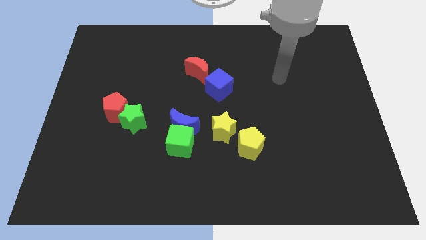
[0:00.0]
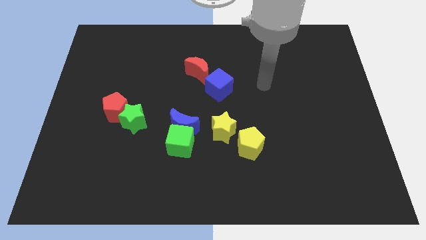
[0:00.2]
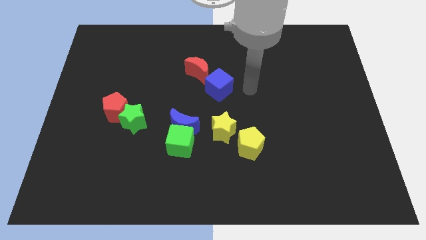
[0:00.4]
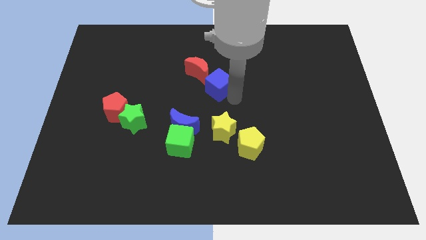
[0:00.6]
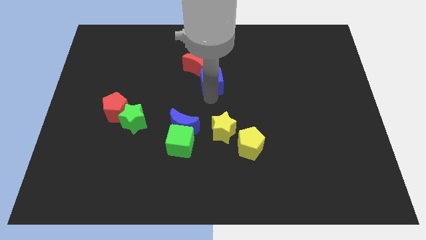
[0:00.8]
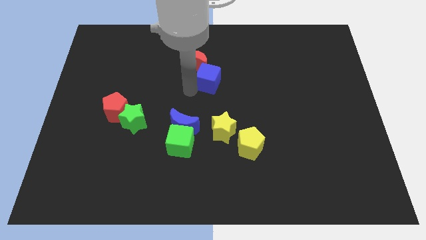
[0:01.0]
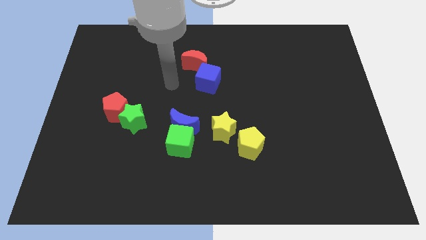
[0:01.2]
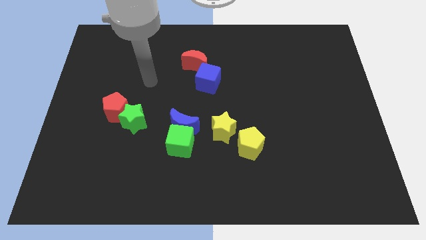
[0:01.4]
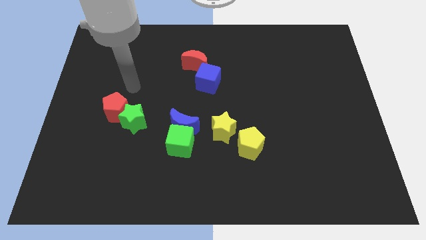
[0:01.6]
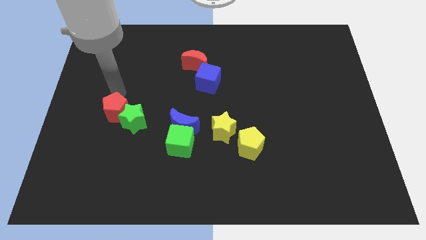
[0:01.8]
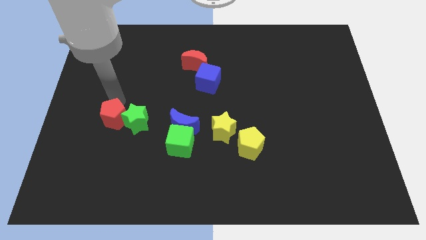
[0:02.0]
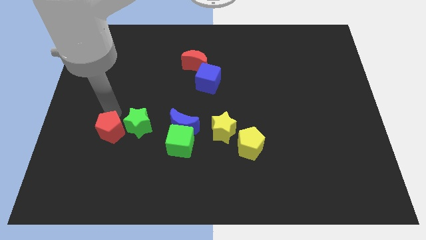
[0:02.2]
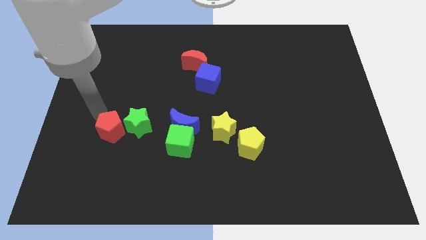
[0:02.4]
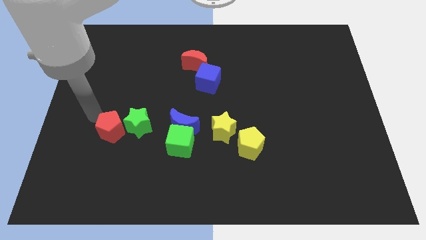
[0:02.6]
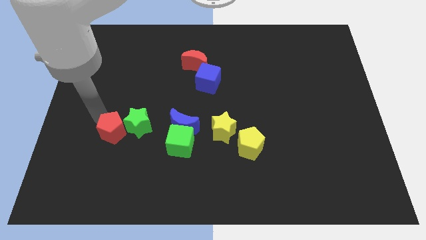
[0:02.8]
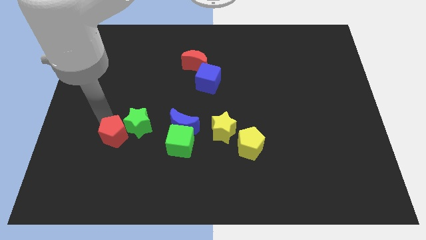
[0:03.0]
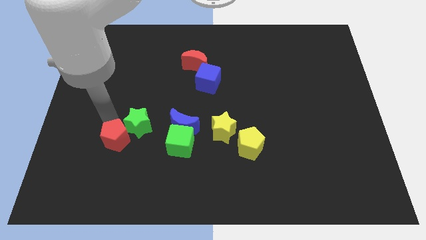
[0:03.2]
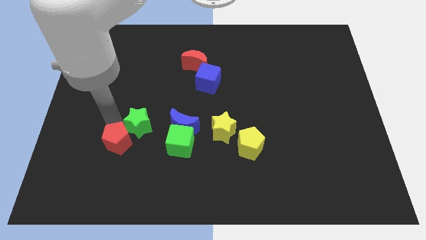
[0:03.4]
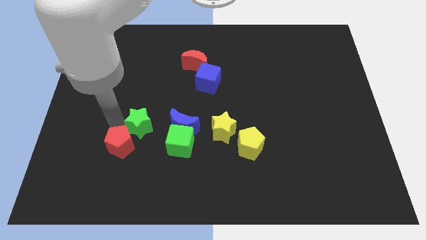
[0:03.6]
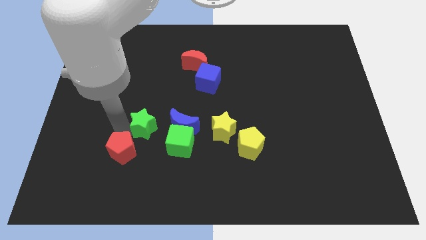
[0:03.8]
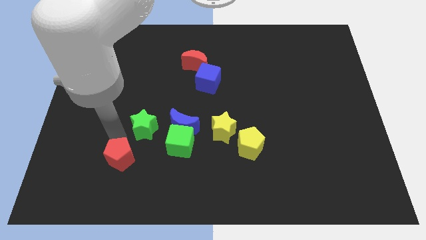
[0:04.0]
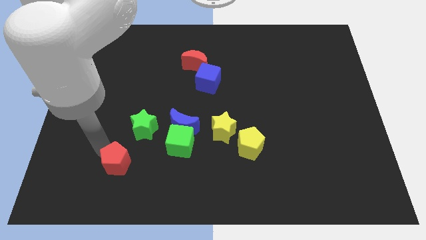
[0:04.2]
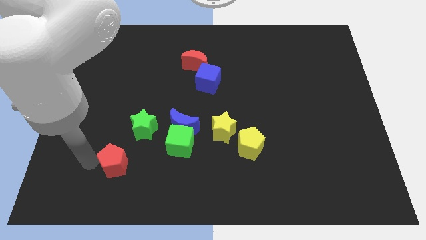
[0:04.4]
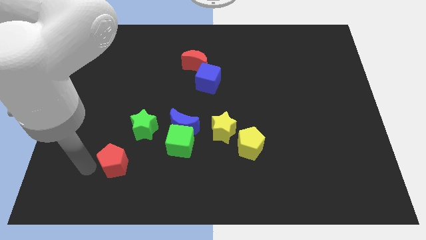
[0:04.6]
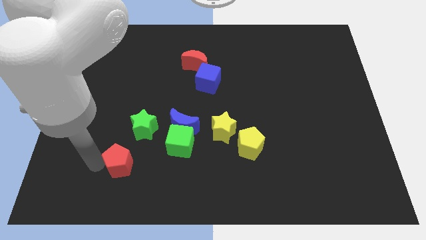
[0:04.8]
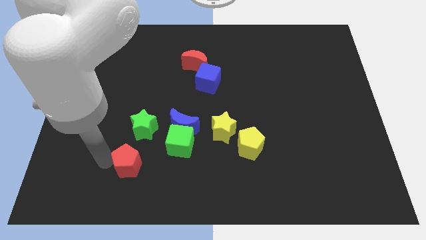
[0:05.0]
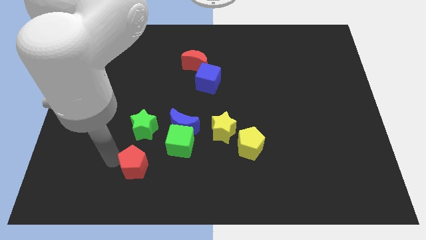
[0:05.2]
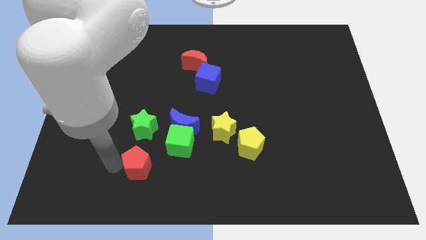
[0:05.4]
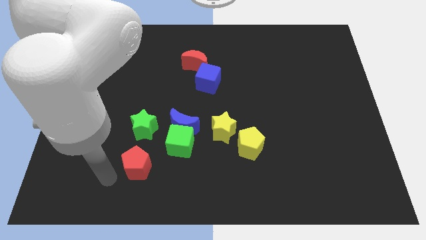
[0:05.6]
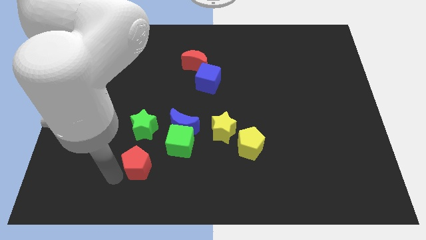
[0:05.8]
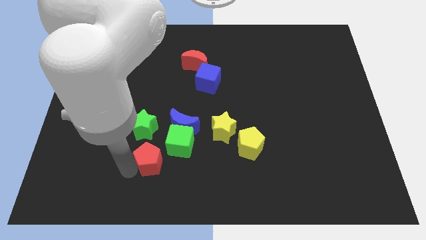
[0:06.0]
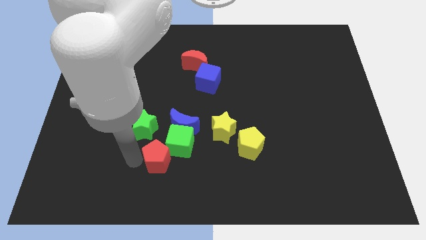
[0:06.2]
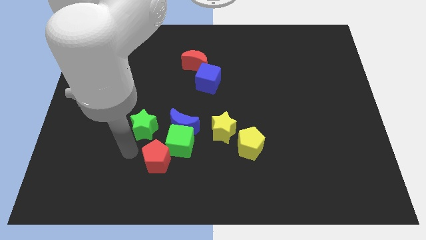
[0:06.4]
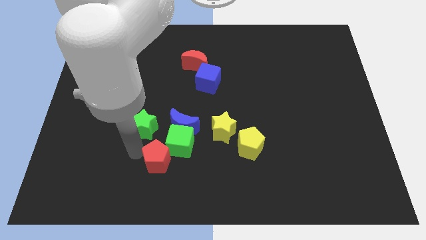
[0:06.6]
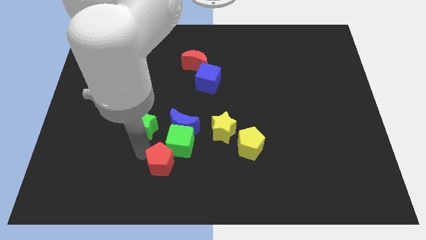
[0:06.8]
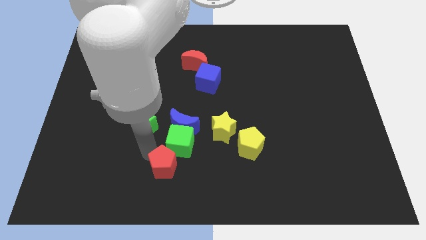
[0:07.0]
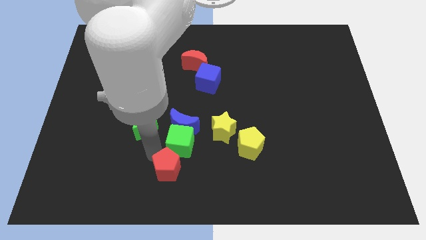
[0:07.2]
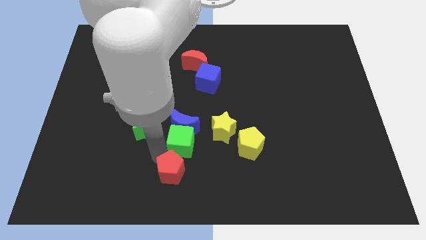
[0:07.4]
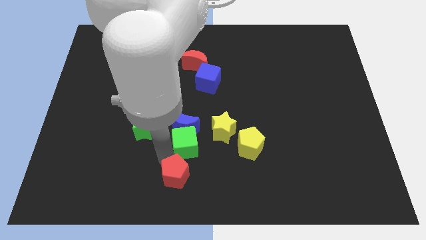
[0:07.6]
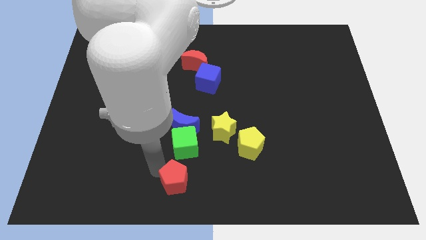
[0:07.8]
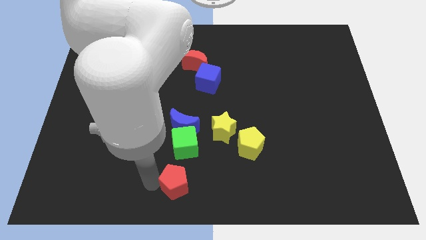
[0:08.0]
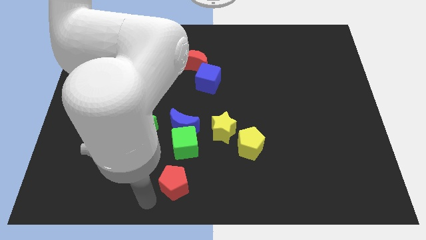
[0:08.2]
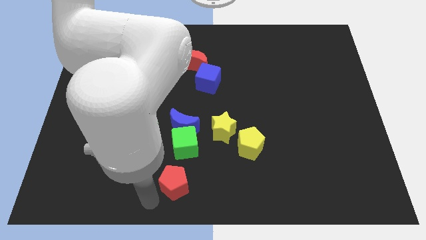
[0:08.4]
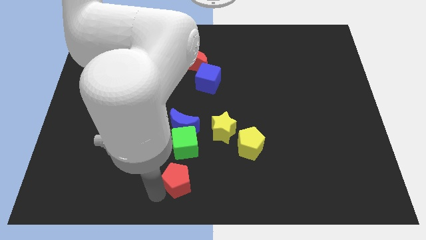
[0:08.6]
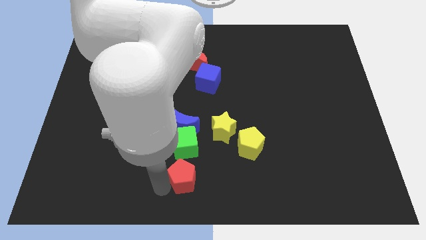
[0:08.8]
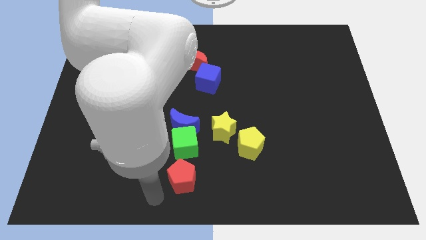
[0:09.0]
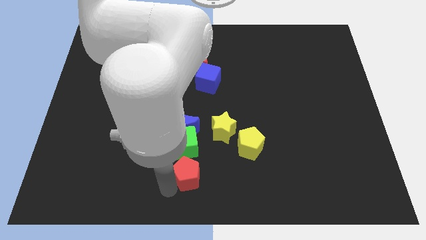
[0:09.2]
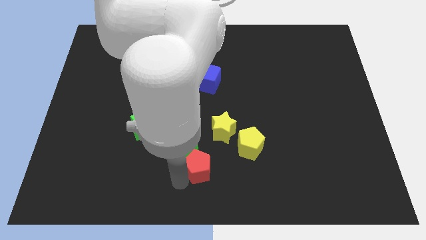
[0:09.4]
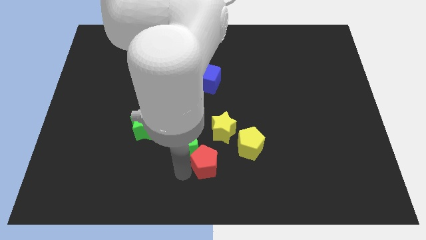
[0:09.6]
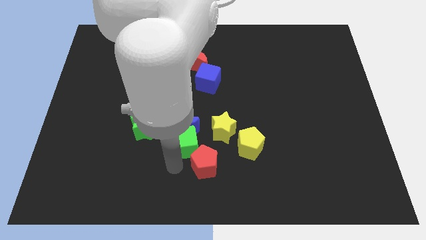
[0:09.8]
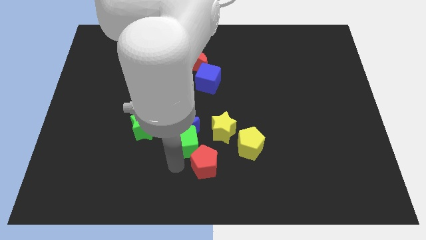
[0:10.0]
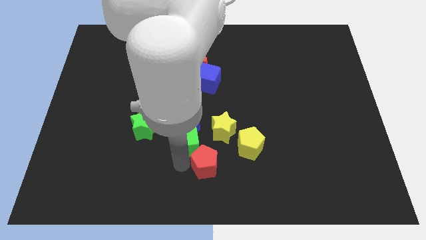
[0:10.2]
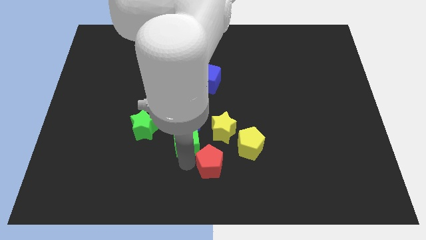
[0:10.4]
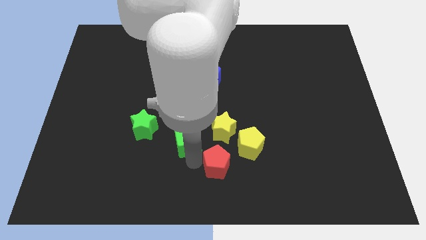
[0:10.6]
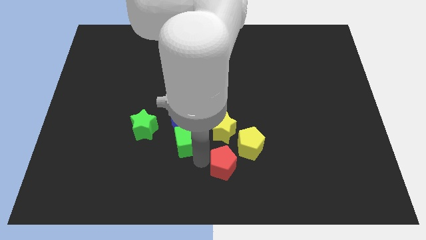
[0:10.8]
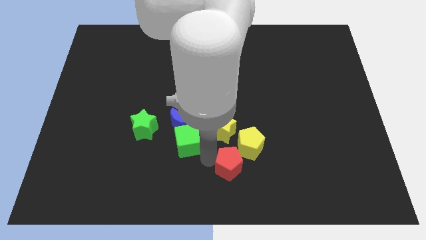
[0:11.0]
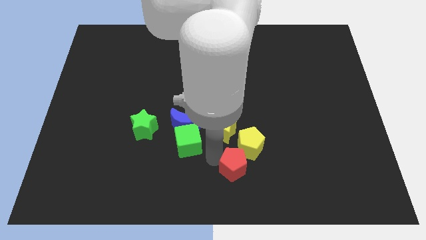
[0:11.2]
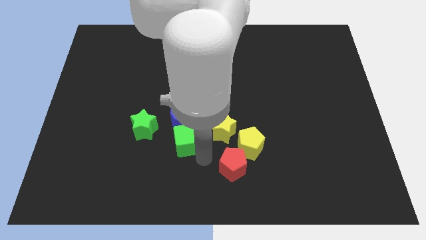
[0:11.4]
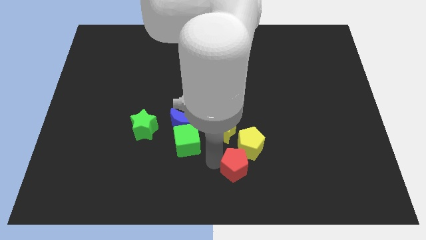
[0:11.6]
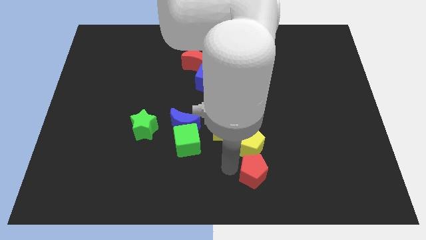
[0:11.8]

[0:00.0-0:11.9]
push the red pentagon to the bottom right side of the yellow pentagon

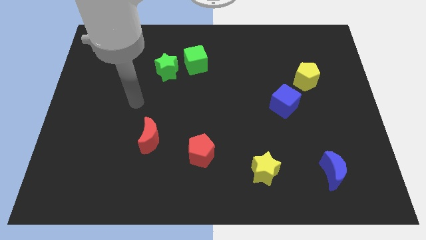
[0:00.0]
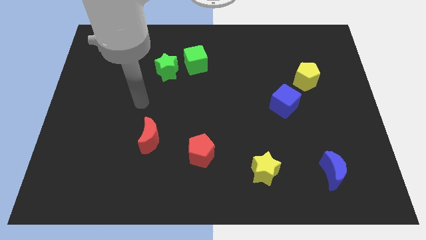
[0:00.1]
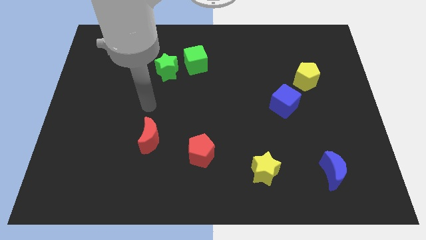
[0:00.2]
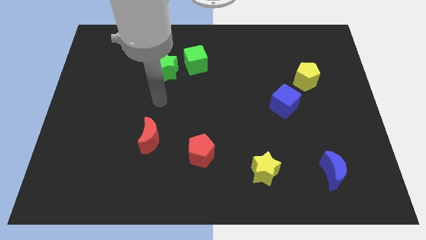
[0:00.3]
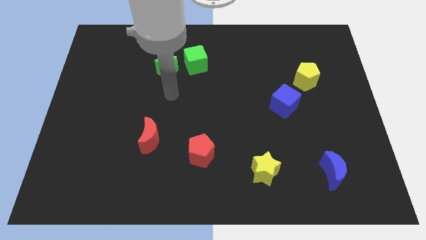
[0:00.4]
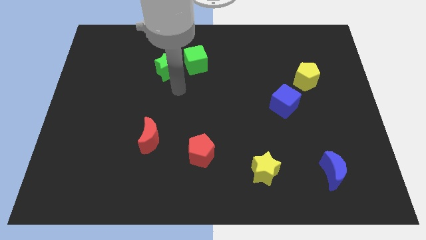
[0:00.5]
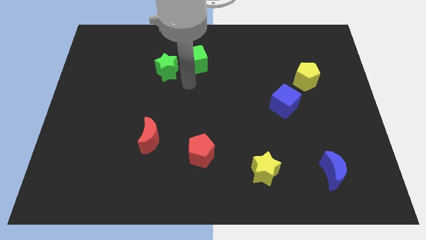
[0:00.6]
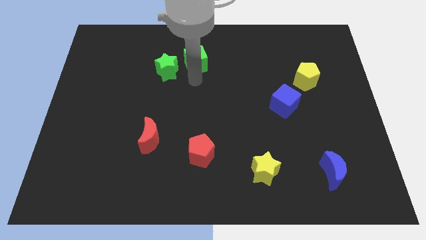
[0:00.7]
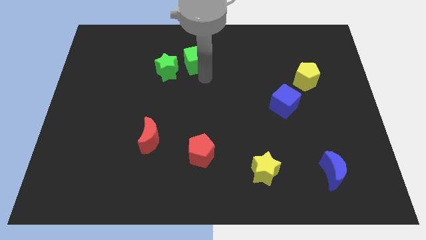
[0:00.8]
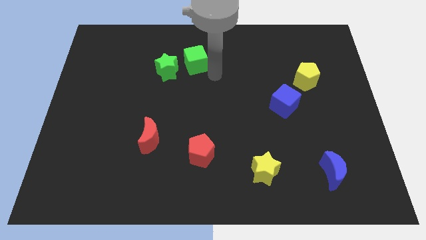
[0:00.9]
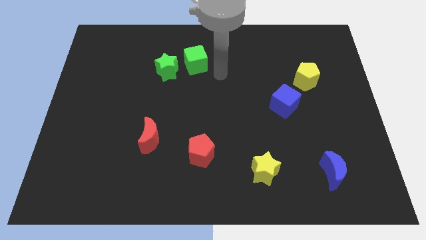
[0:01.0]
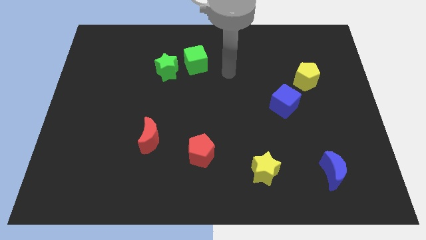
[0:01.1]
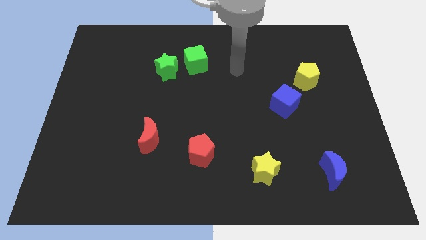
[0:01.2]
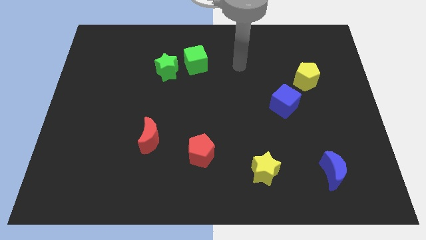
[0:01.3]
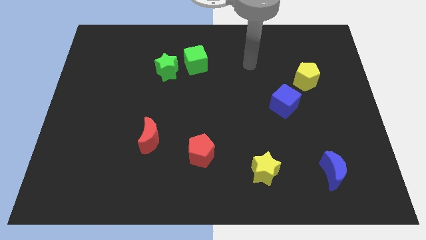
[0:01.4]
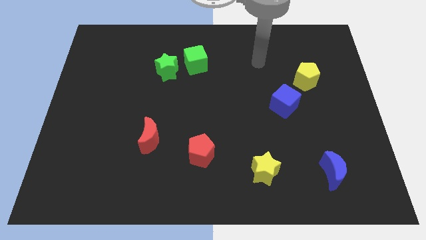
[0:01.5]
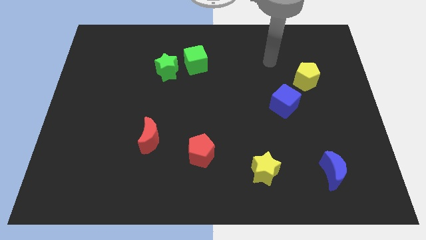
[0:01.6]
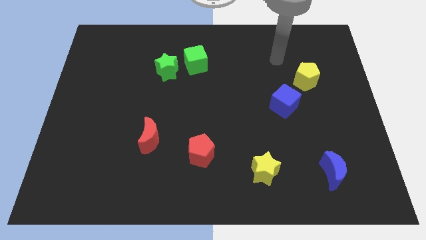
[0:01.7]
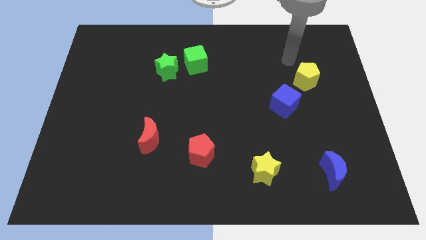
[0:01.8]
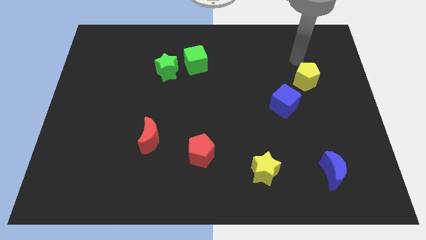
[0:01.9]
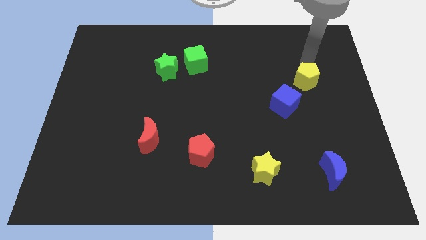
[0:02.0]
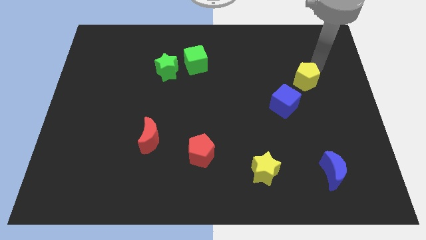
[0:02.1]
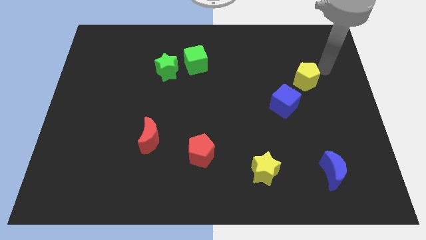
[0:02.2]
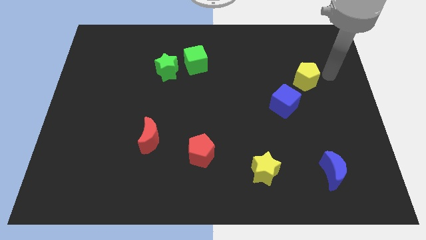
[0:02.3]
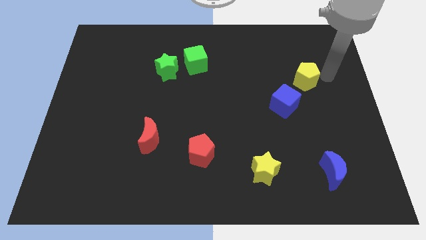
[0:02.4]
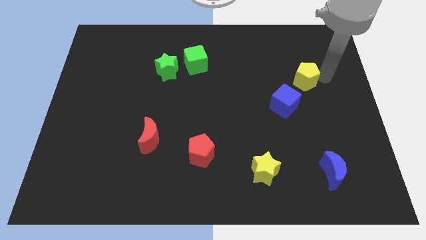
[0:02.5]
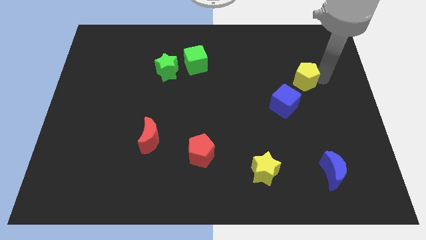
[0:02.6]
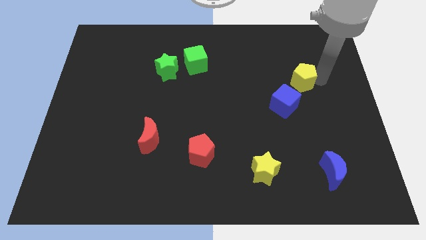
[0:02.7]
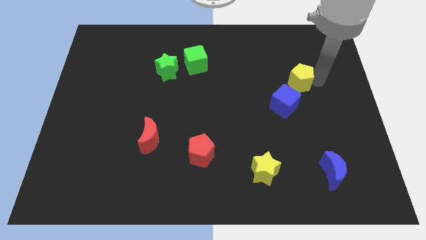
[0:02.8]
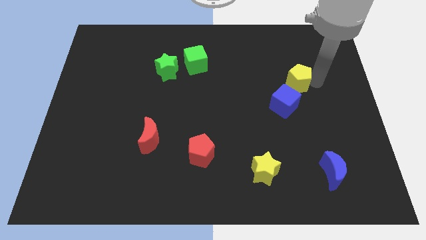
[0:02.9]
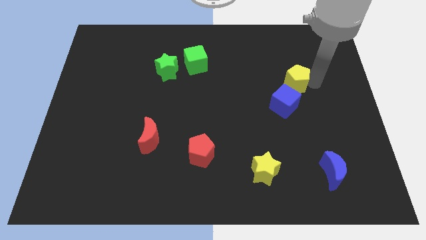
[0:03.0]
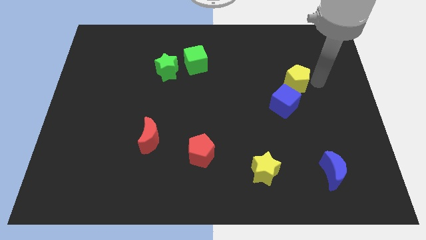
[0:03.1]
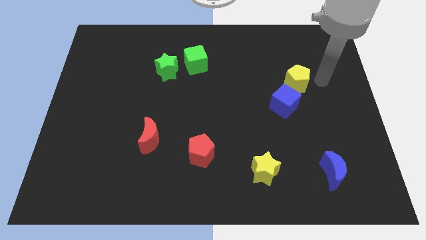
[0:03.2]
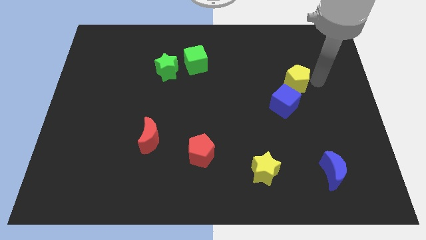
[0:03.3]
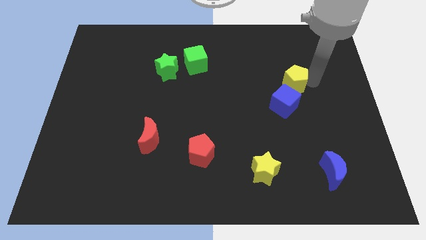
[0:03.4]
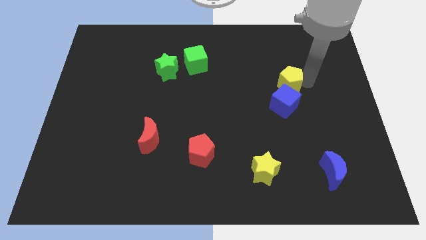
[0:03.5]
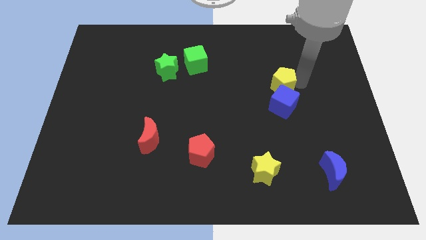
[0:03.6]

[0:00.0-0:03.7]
put the yellow pentagon to the top left side of the blue cube
